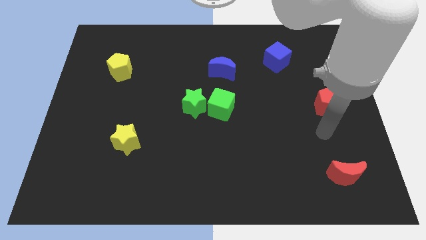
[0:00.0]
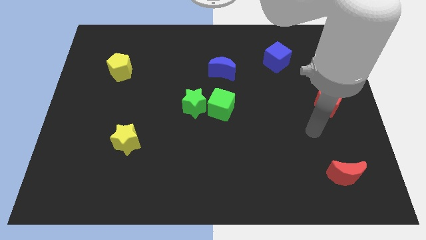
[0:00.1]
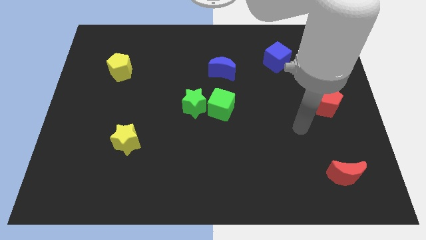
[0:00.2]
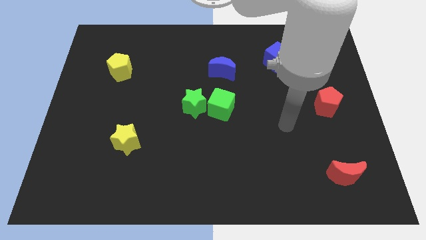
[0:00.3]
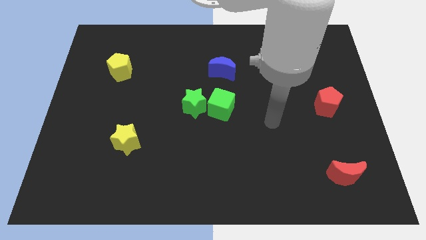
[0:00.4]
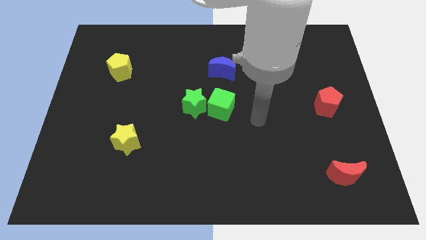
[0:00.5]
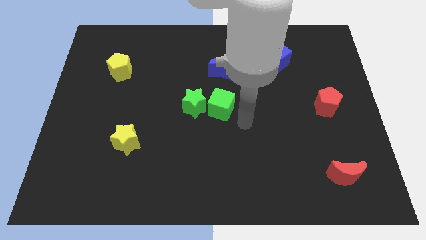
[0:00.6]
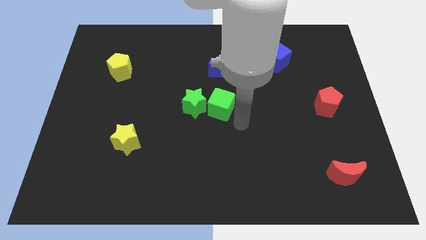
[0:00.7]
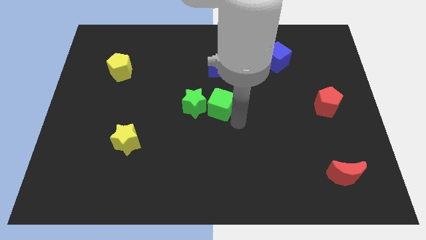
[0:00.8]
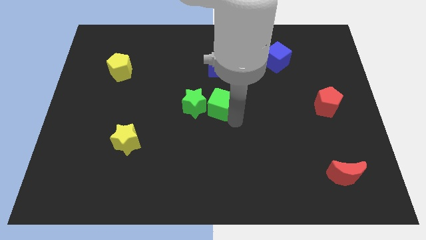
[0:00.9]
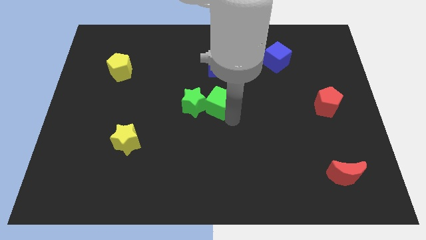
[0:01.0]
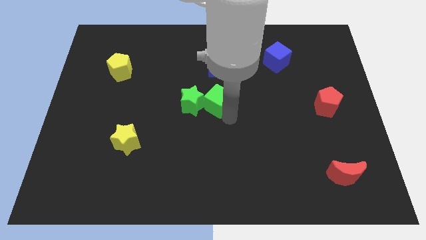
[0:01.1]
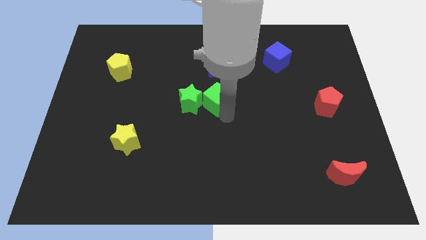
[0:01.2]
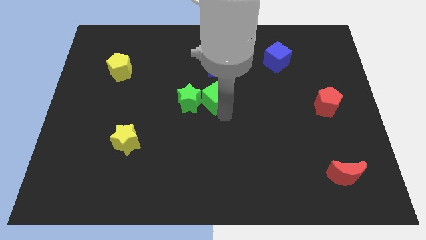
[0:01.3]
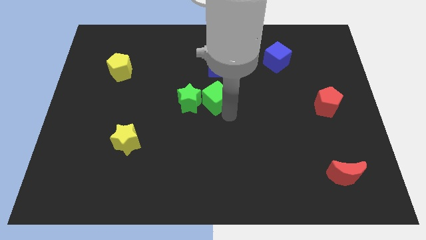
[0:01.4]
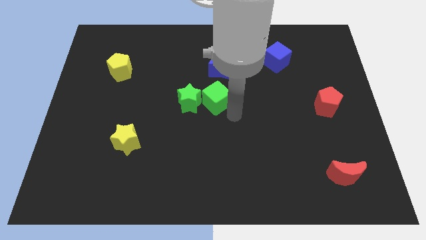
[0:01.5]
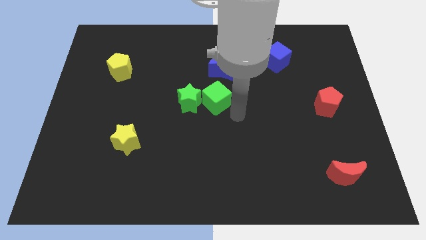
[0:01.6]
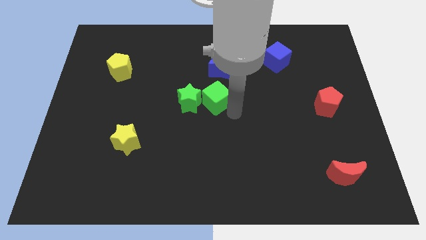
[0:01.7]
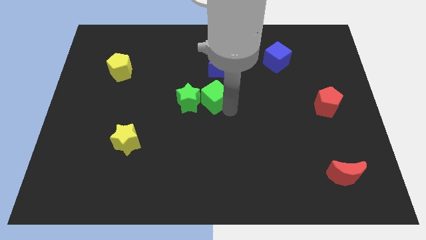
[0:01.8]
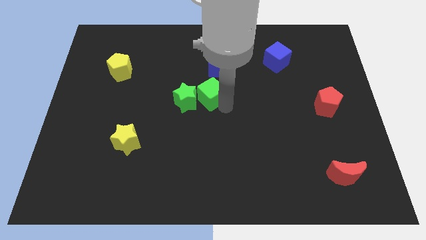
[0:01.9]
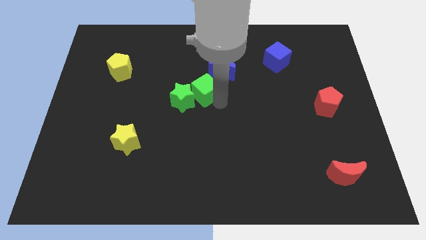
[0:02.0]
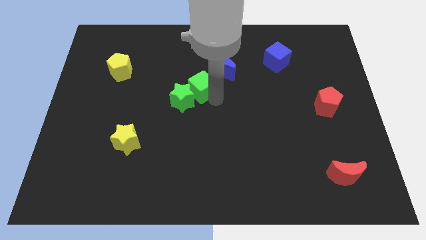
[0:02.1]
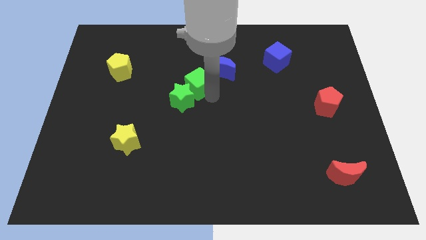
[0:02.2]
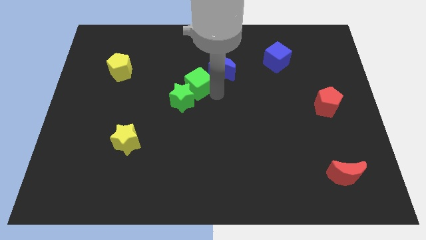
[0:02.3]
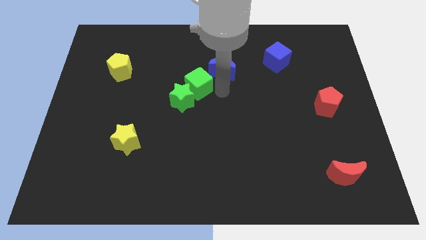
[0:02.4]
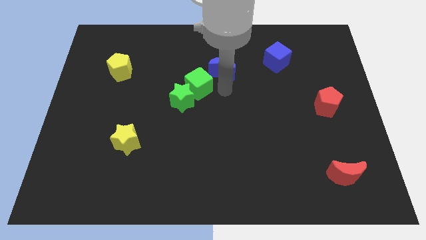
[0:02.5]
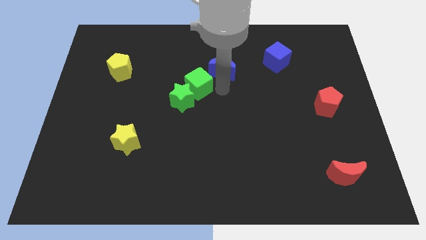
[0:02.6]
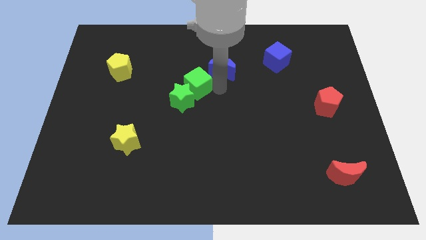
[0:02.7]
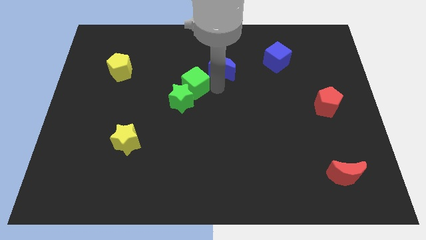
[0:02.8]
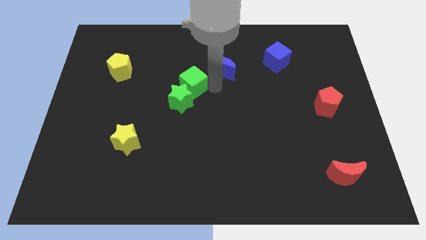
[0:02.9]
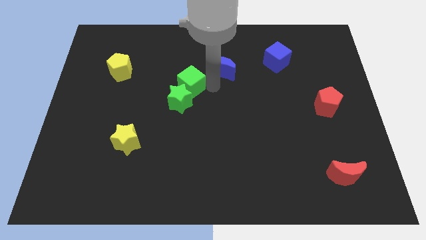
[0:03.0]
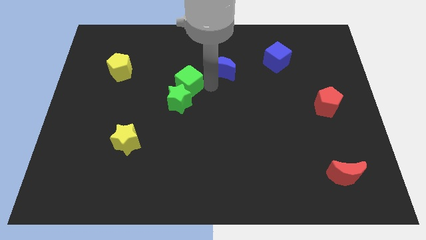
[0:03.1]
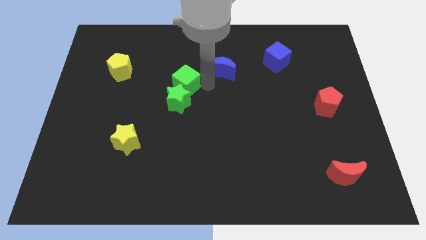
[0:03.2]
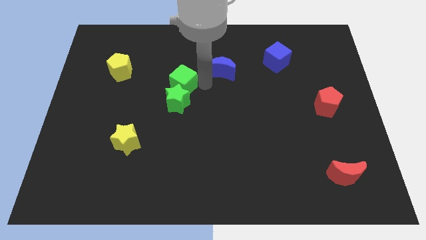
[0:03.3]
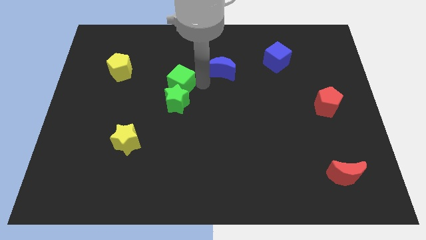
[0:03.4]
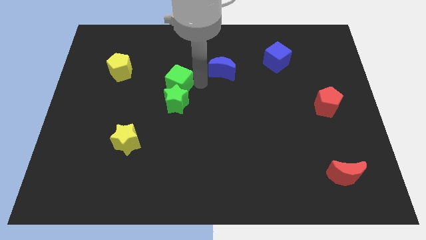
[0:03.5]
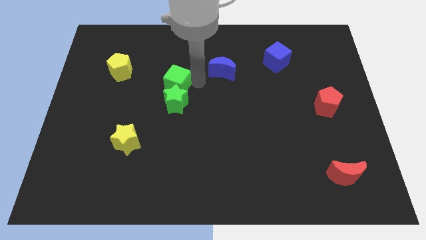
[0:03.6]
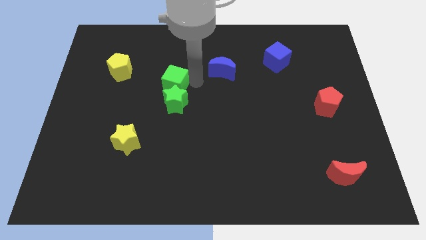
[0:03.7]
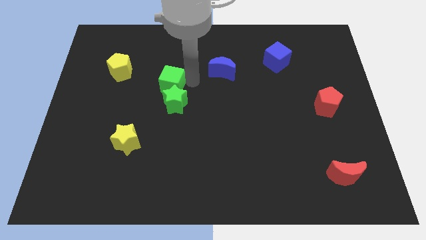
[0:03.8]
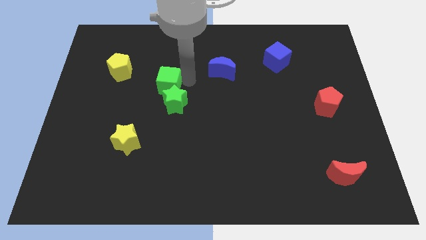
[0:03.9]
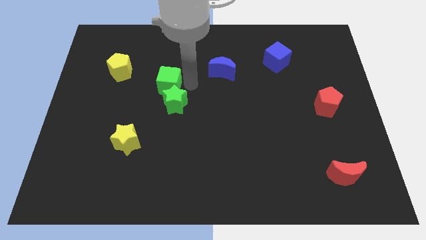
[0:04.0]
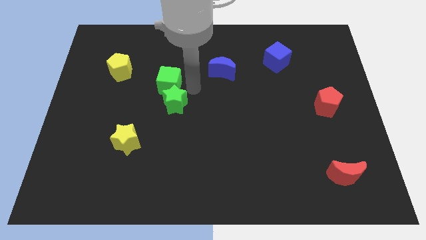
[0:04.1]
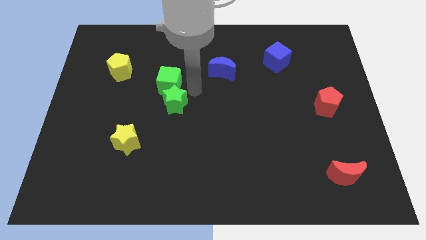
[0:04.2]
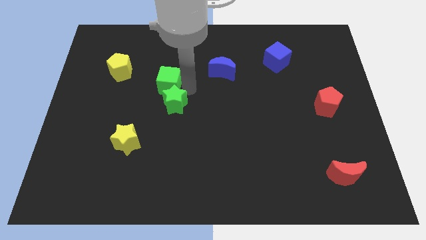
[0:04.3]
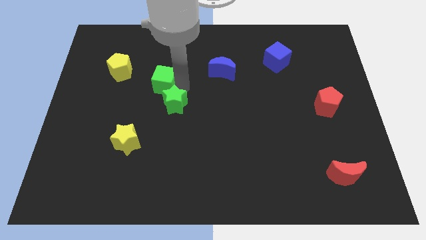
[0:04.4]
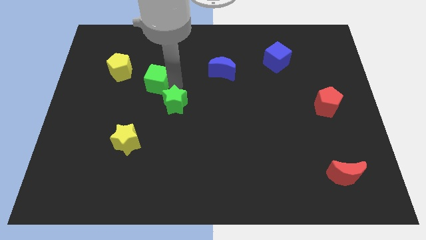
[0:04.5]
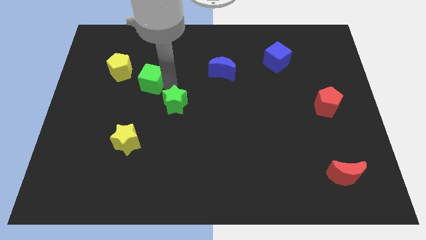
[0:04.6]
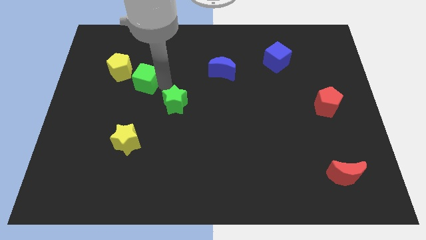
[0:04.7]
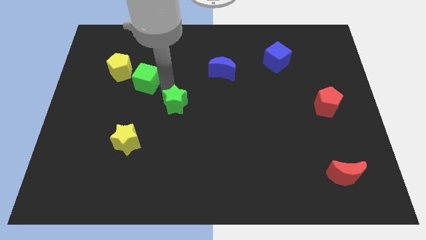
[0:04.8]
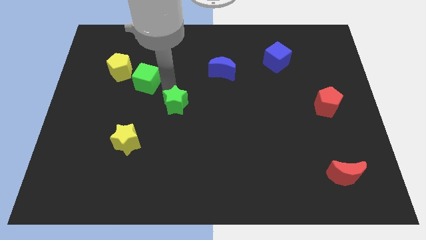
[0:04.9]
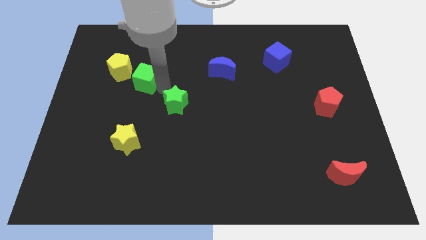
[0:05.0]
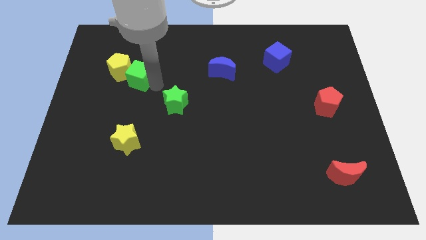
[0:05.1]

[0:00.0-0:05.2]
put the green cube to the yellow pentagon

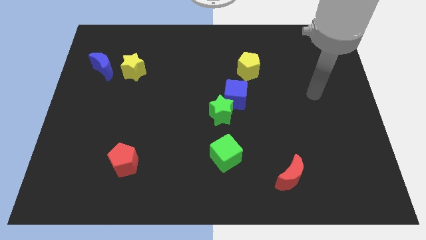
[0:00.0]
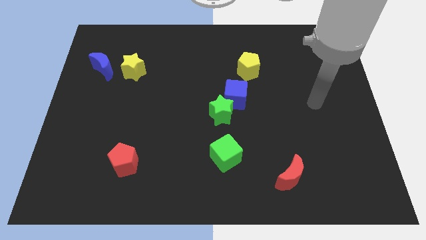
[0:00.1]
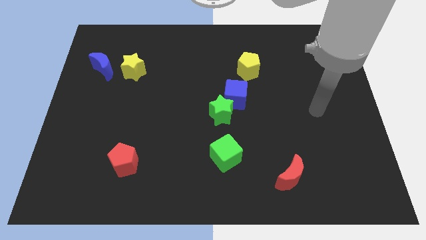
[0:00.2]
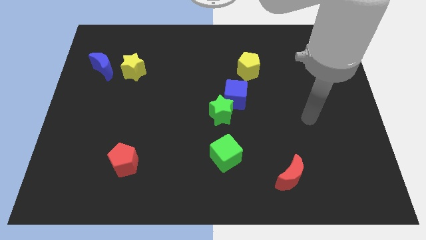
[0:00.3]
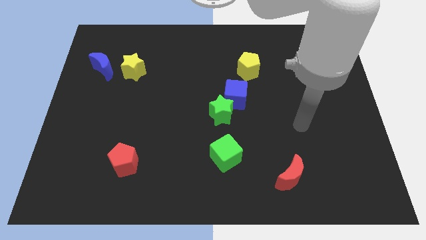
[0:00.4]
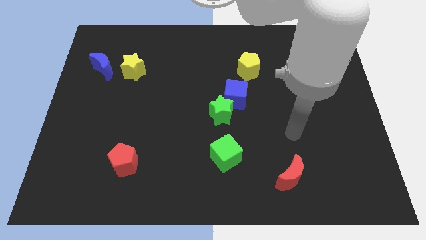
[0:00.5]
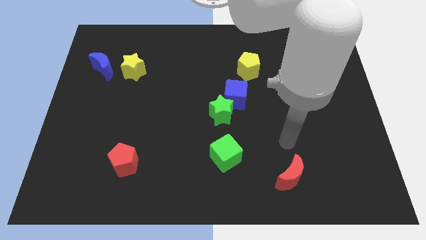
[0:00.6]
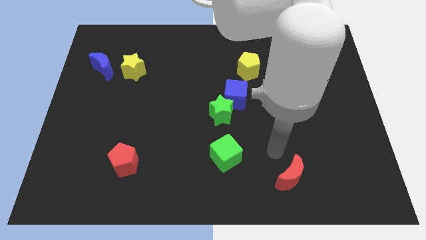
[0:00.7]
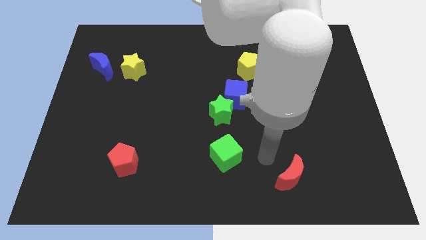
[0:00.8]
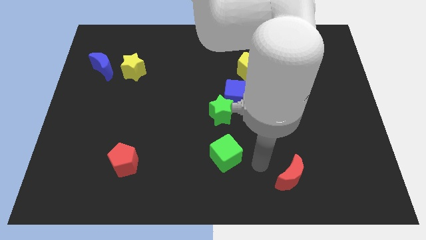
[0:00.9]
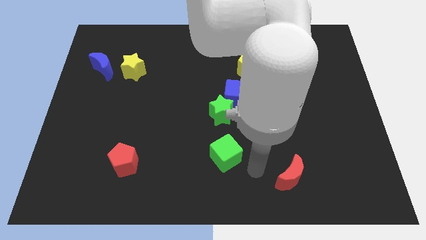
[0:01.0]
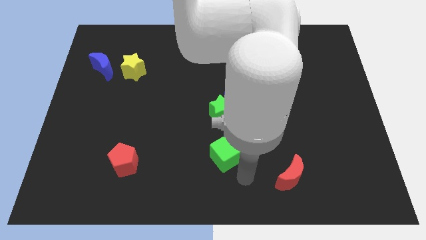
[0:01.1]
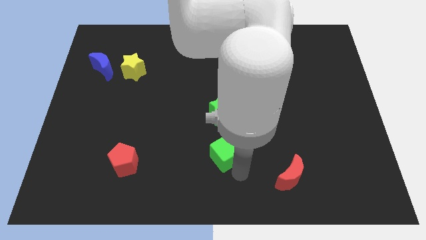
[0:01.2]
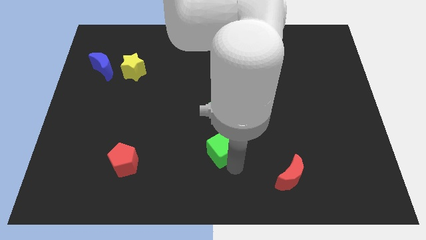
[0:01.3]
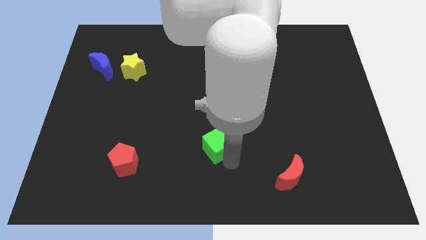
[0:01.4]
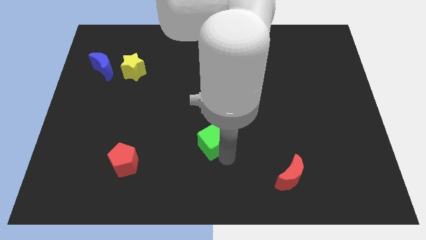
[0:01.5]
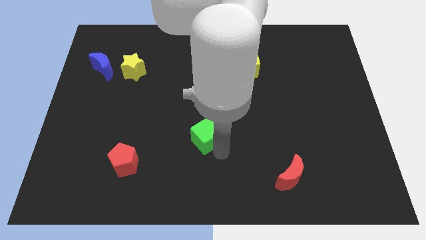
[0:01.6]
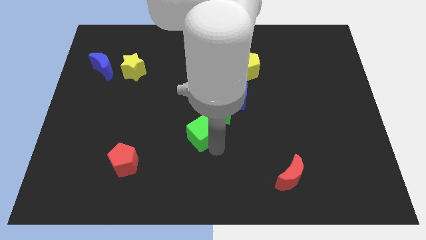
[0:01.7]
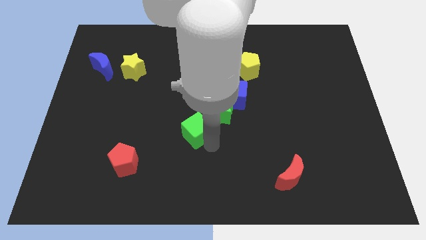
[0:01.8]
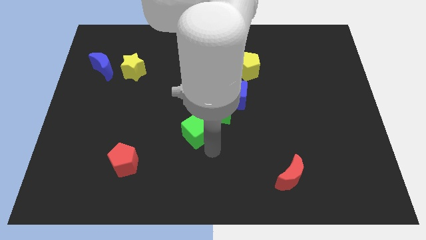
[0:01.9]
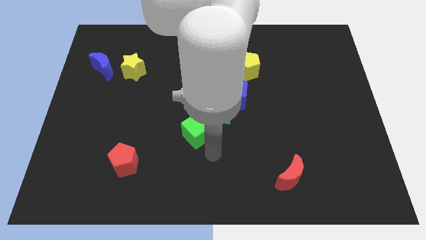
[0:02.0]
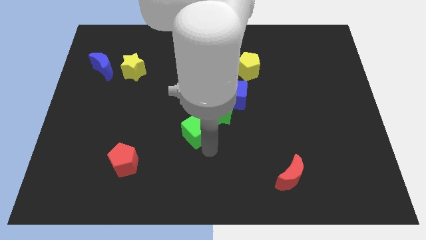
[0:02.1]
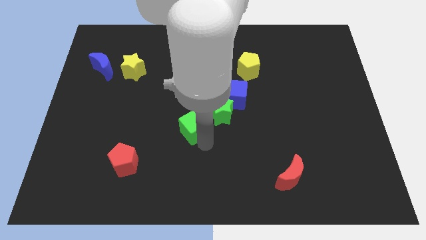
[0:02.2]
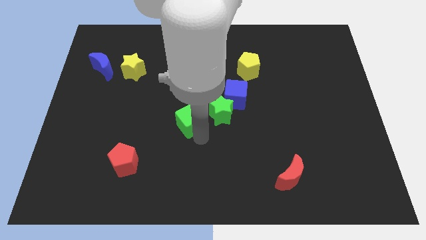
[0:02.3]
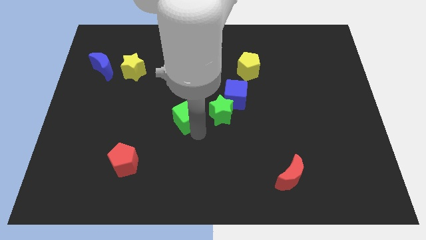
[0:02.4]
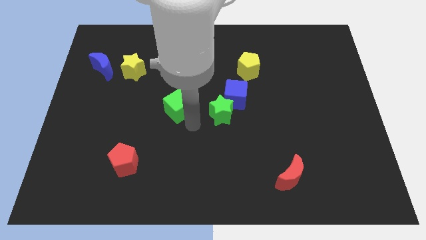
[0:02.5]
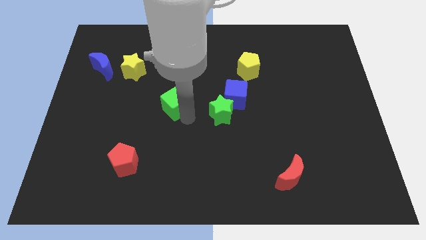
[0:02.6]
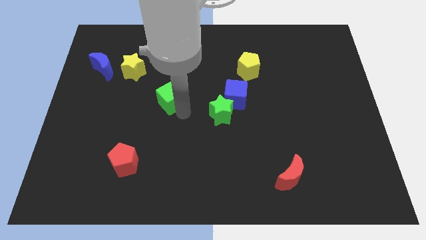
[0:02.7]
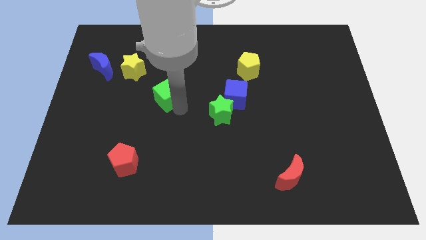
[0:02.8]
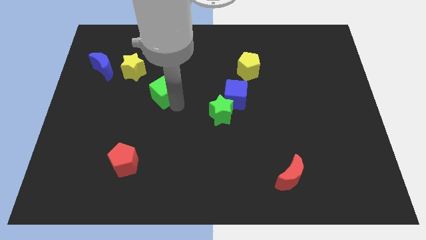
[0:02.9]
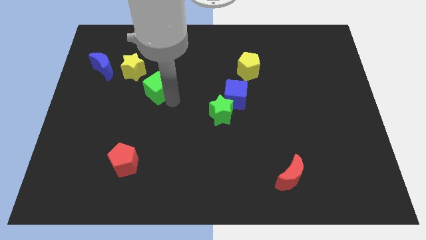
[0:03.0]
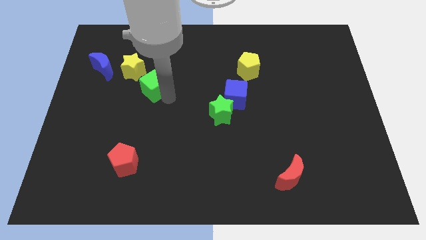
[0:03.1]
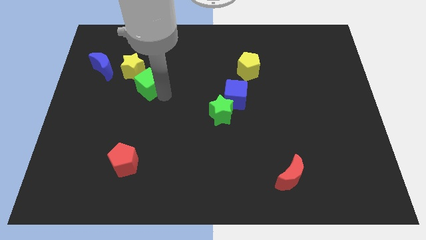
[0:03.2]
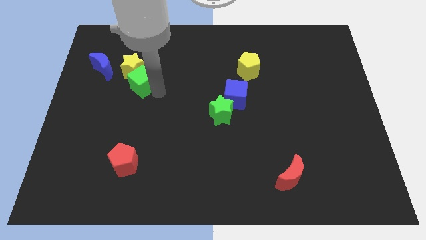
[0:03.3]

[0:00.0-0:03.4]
slide the green cube towards the yellow star
